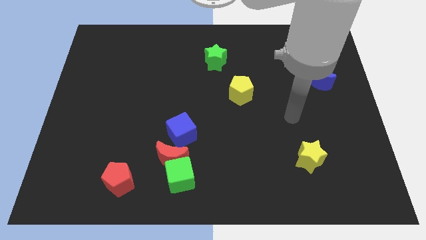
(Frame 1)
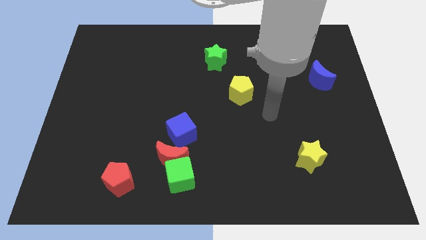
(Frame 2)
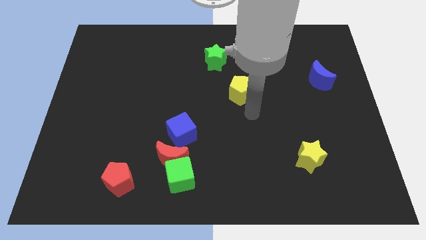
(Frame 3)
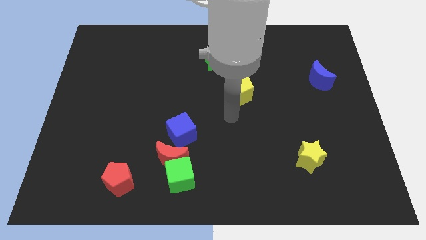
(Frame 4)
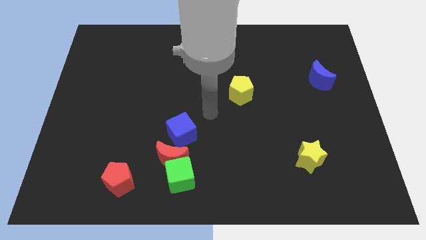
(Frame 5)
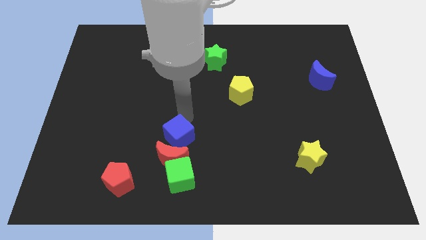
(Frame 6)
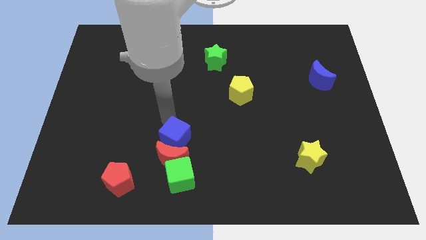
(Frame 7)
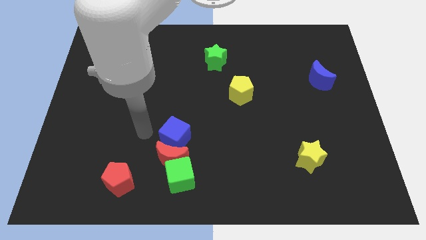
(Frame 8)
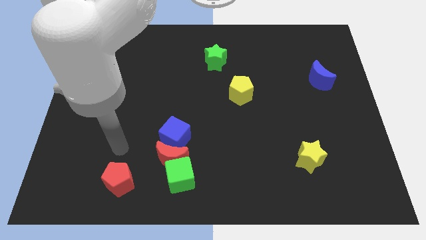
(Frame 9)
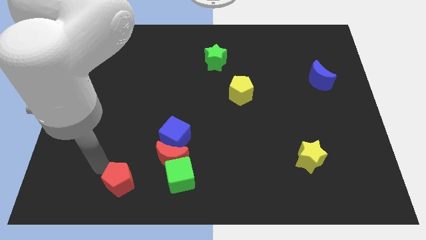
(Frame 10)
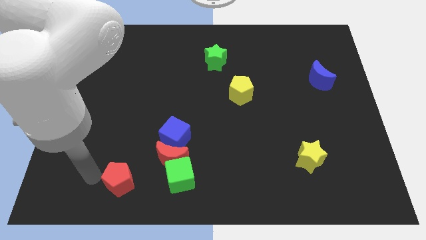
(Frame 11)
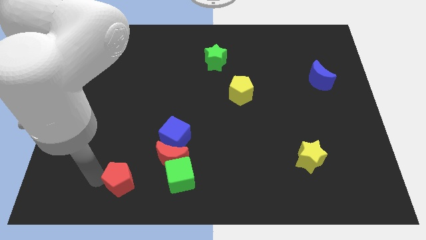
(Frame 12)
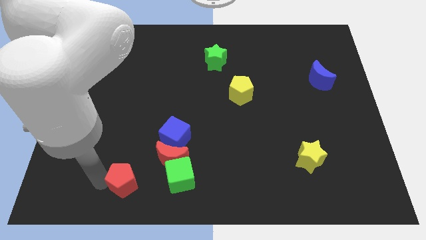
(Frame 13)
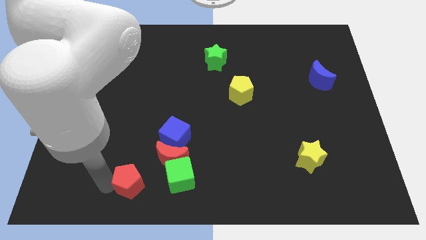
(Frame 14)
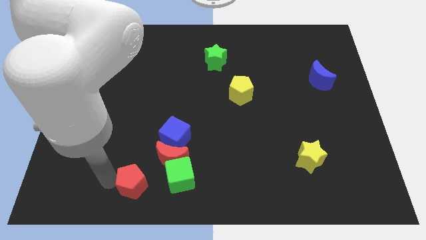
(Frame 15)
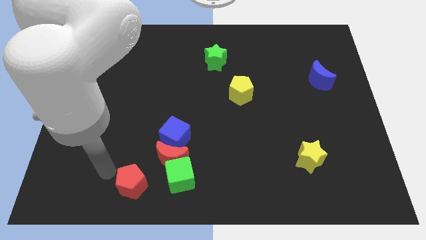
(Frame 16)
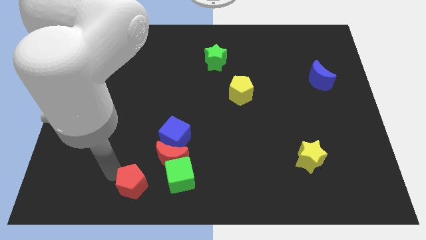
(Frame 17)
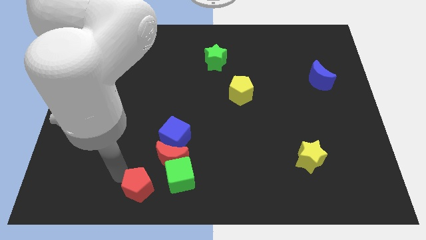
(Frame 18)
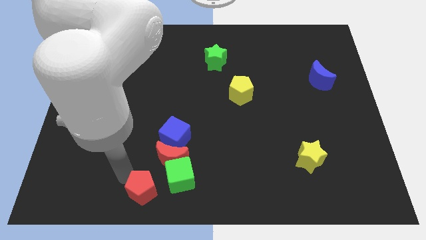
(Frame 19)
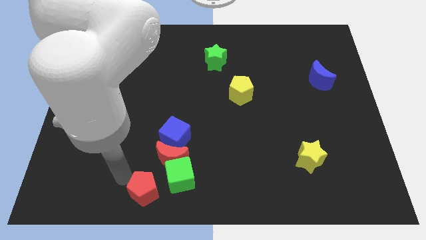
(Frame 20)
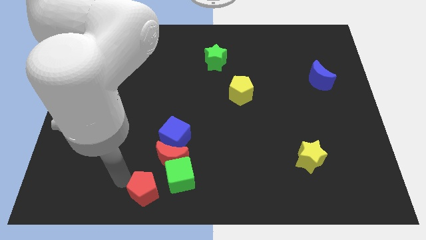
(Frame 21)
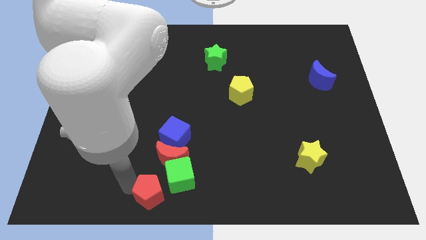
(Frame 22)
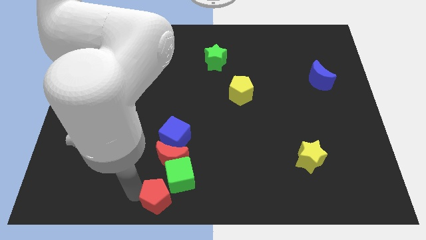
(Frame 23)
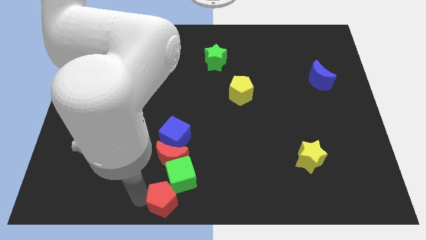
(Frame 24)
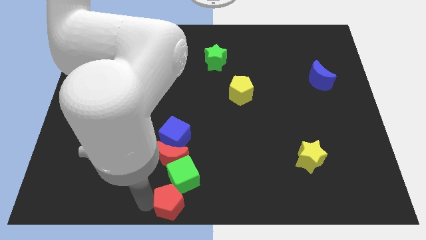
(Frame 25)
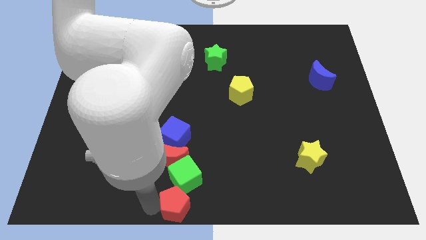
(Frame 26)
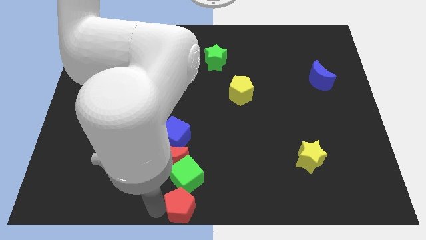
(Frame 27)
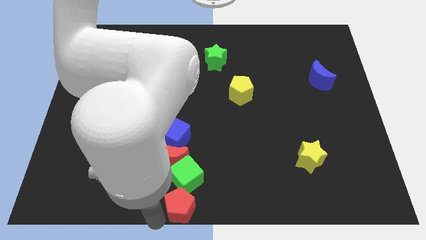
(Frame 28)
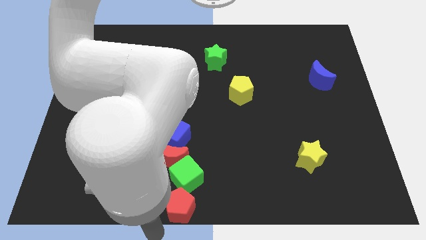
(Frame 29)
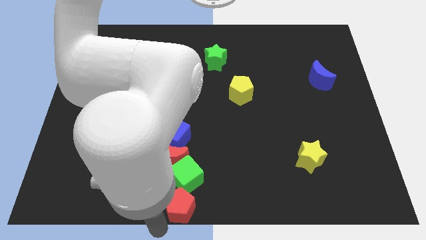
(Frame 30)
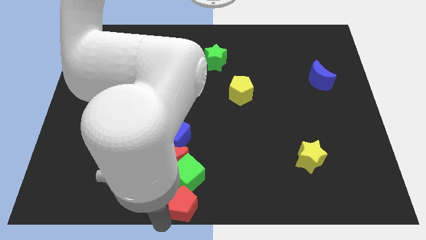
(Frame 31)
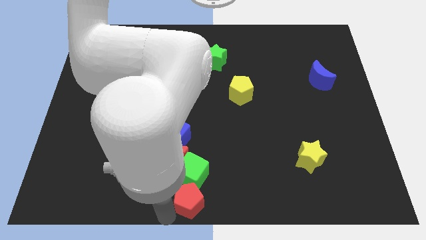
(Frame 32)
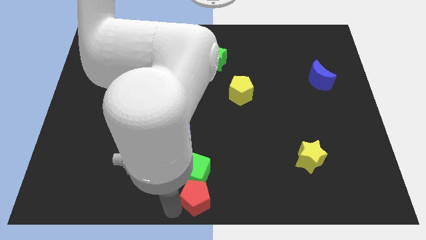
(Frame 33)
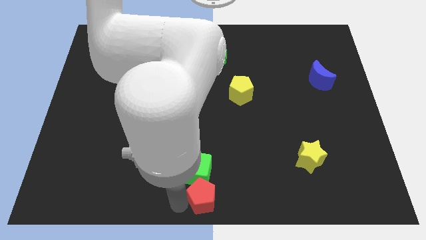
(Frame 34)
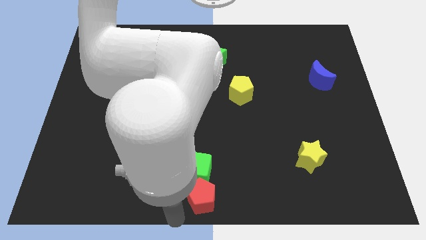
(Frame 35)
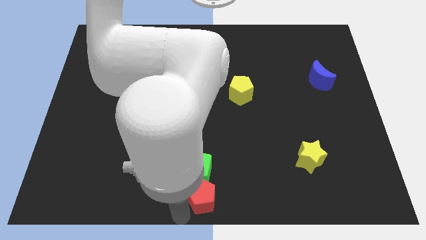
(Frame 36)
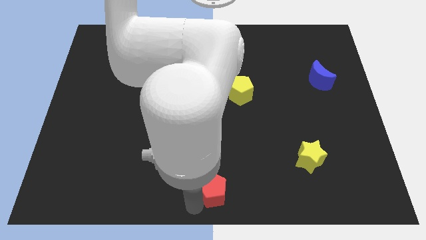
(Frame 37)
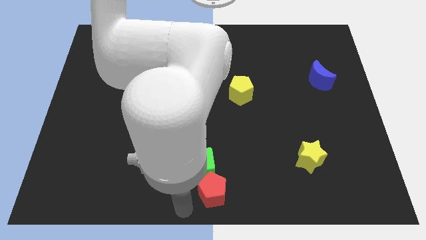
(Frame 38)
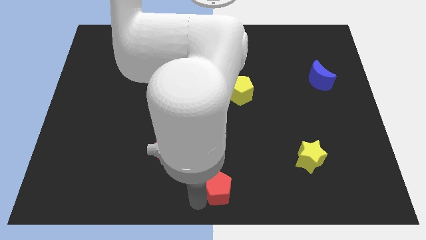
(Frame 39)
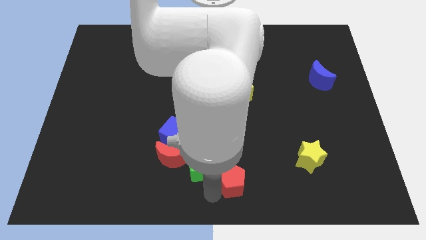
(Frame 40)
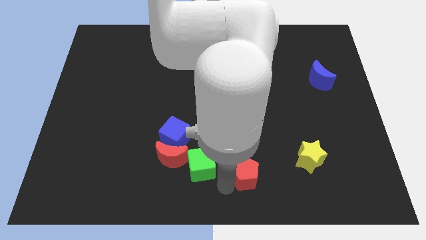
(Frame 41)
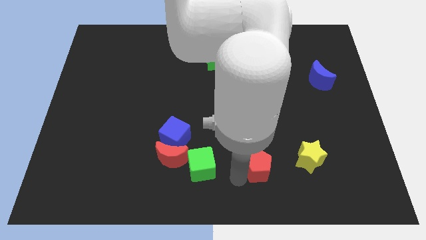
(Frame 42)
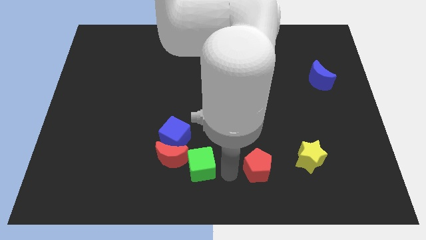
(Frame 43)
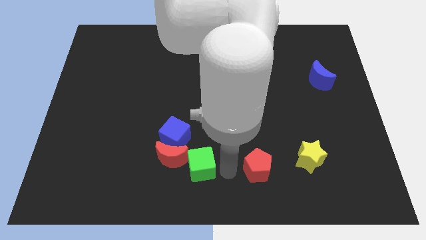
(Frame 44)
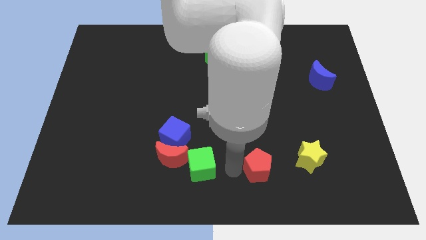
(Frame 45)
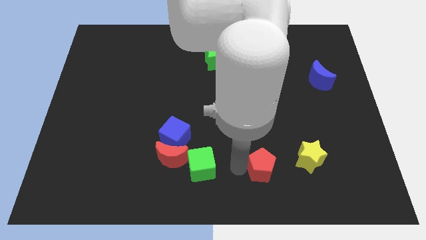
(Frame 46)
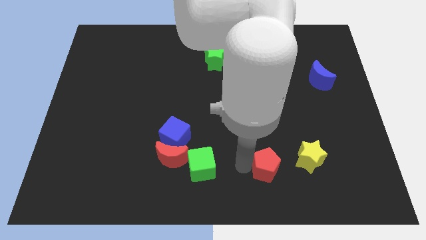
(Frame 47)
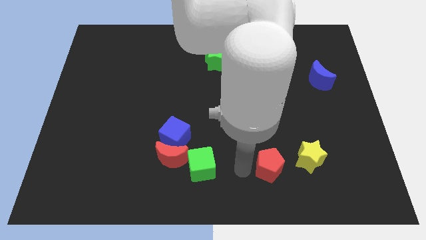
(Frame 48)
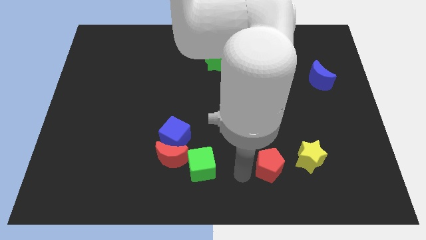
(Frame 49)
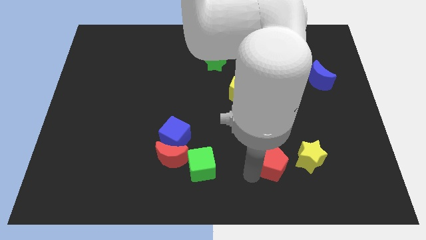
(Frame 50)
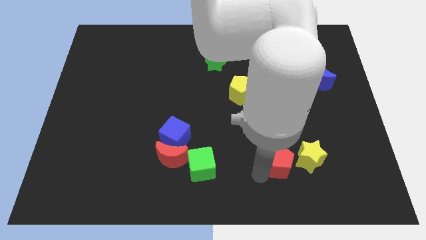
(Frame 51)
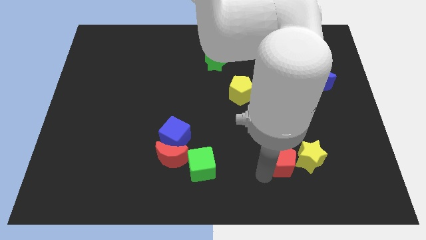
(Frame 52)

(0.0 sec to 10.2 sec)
push the red pentagon close to the yellow star

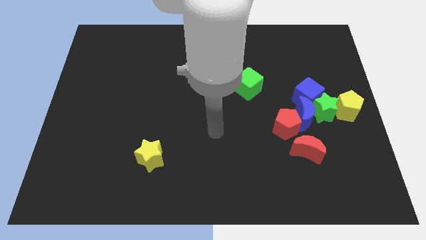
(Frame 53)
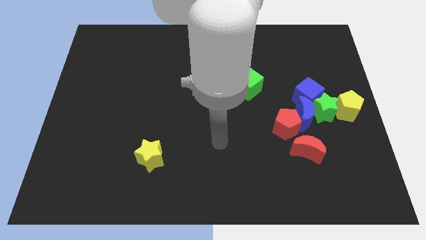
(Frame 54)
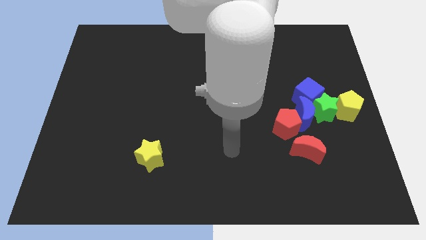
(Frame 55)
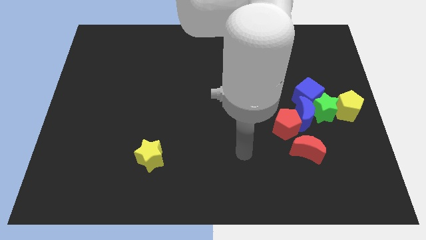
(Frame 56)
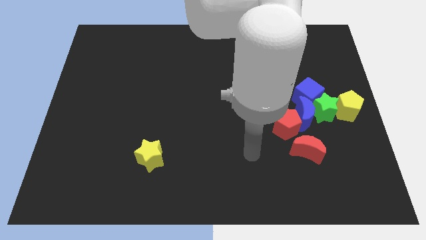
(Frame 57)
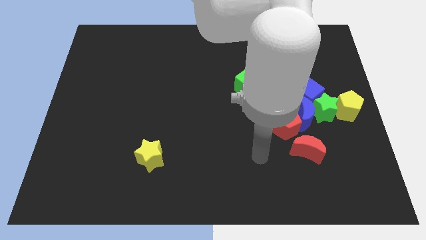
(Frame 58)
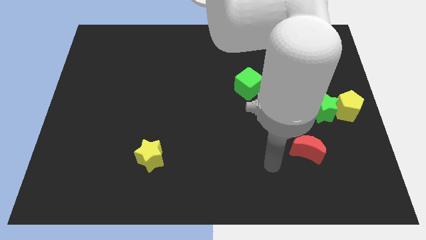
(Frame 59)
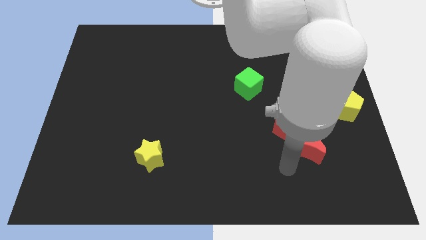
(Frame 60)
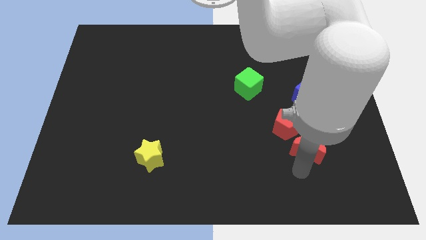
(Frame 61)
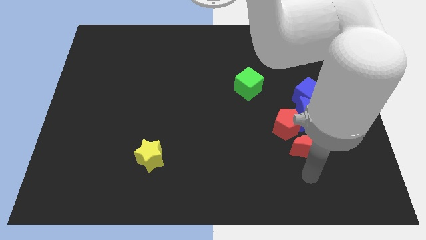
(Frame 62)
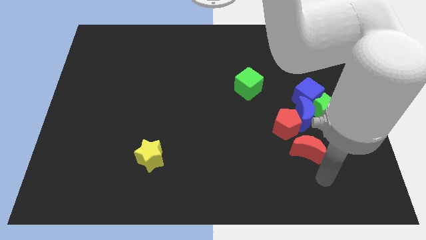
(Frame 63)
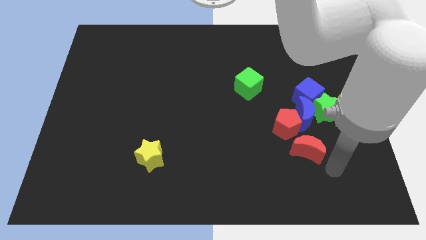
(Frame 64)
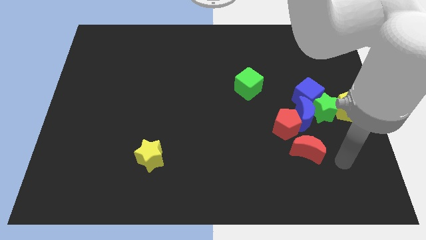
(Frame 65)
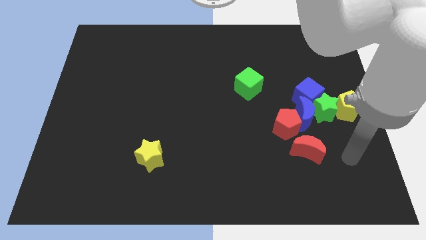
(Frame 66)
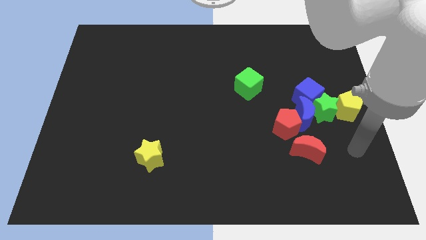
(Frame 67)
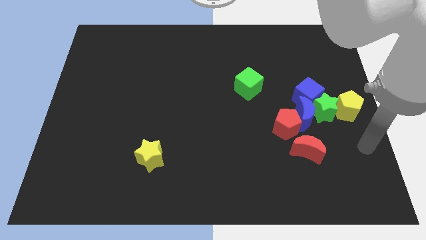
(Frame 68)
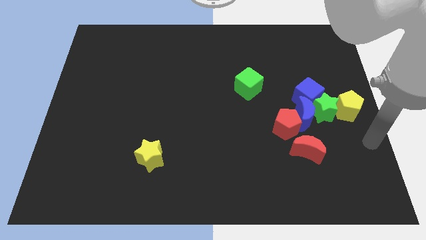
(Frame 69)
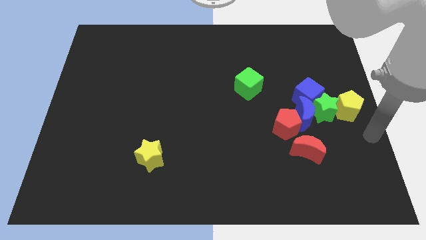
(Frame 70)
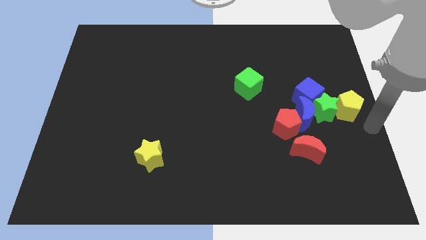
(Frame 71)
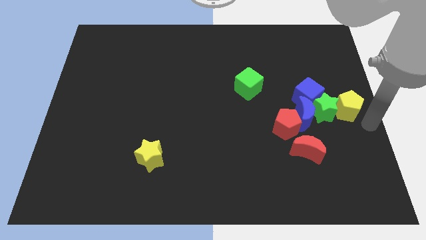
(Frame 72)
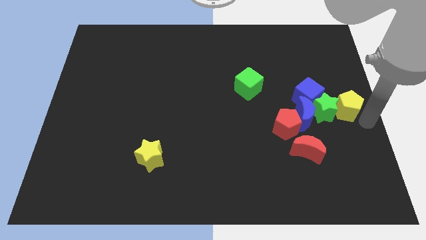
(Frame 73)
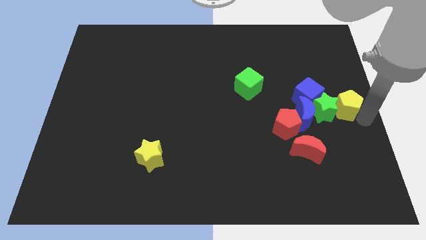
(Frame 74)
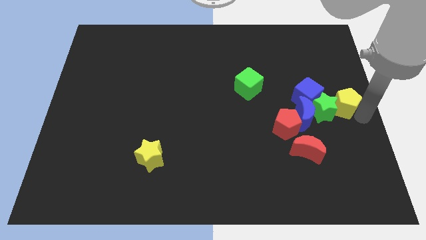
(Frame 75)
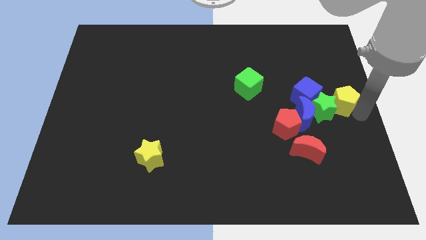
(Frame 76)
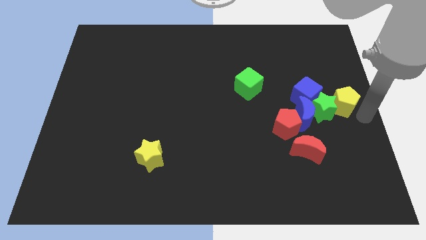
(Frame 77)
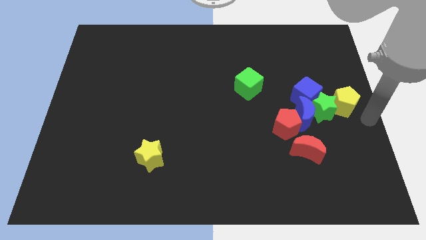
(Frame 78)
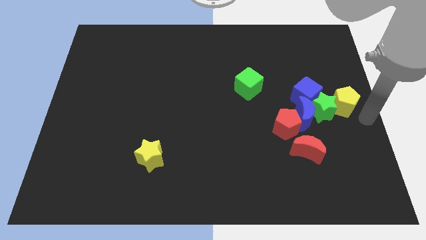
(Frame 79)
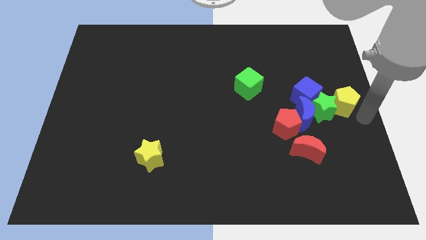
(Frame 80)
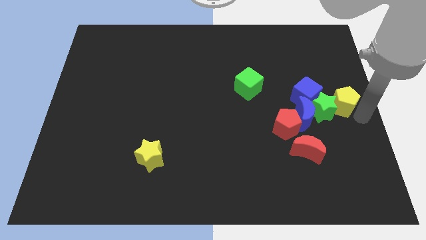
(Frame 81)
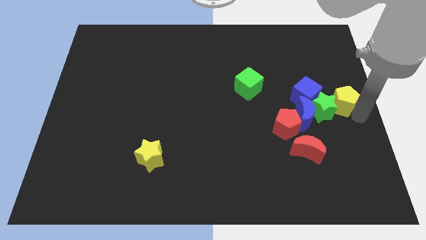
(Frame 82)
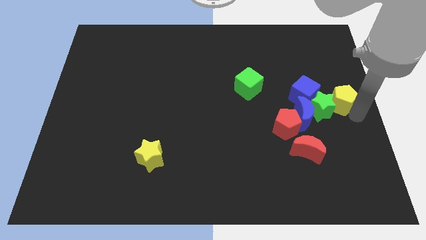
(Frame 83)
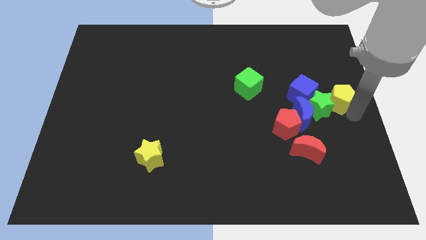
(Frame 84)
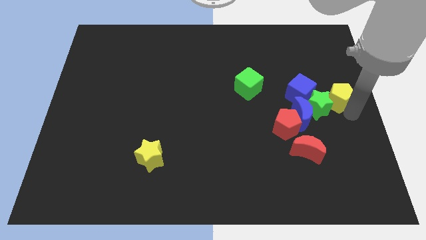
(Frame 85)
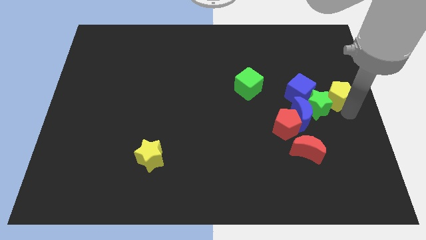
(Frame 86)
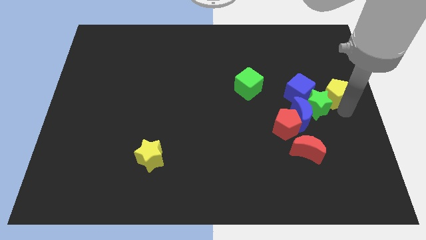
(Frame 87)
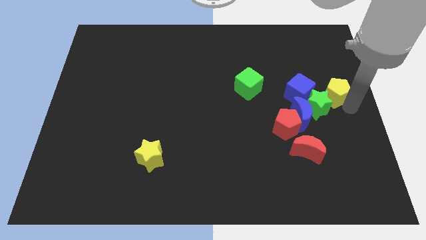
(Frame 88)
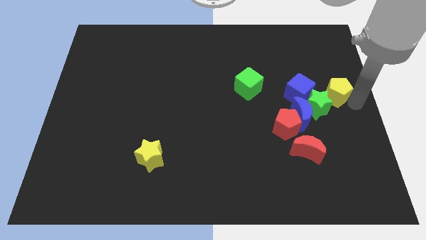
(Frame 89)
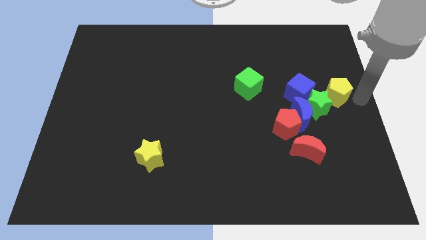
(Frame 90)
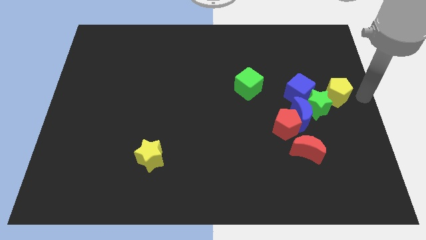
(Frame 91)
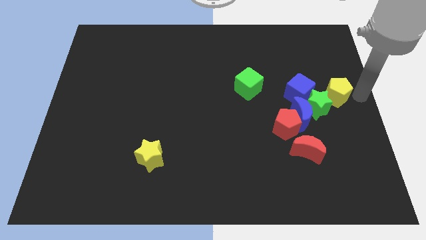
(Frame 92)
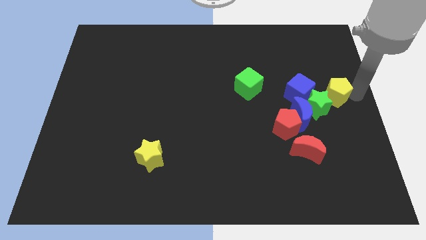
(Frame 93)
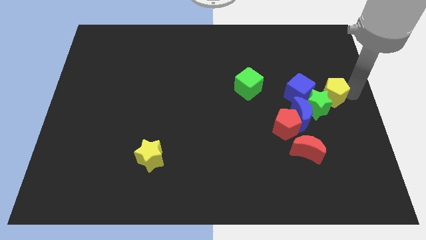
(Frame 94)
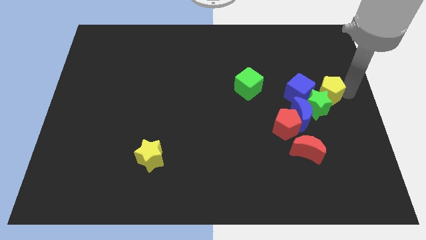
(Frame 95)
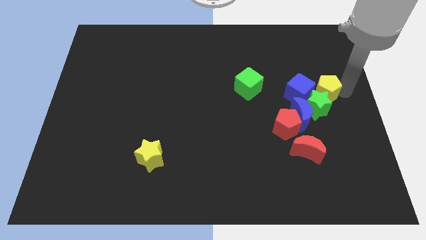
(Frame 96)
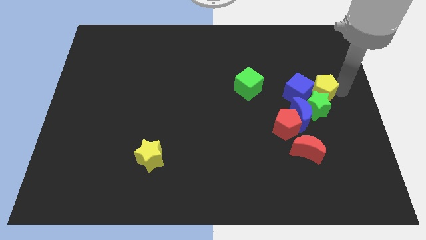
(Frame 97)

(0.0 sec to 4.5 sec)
put the yellow pentagon next to the blue cube
